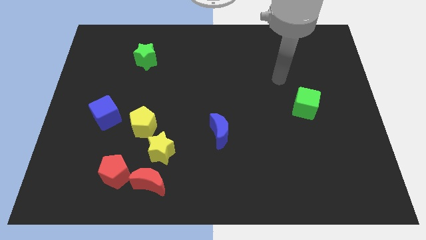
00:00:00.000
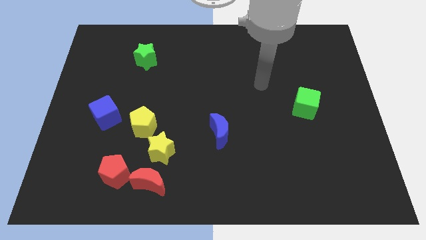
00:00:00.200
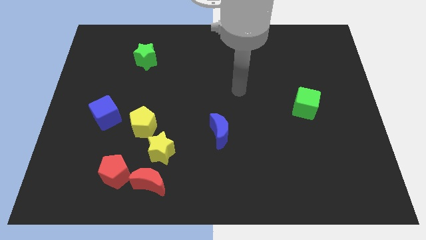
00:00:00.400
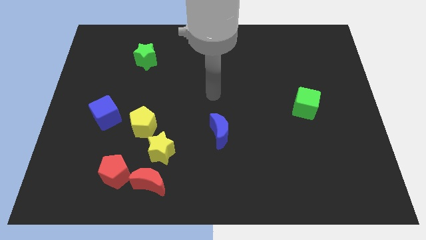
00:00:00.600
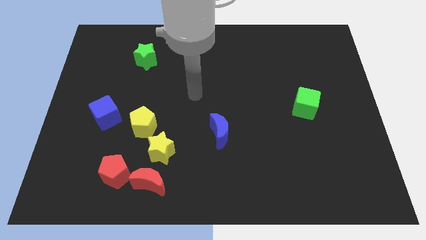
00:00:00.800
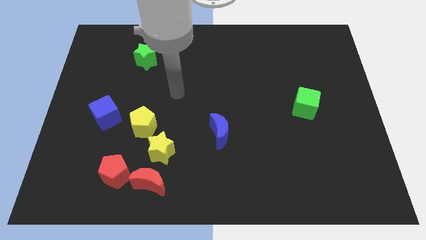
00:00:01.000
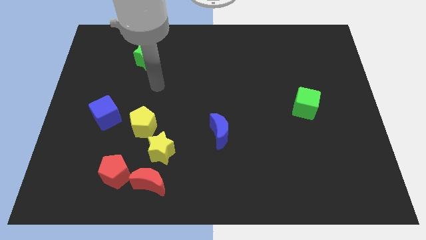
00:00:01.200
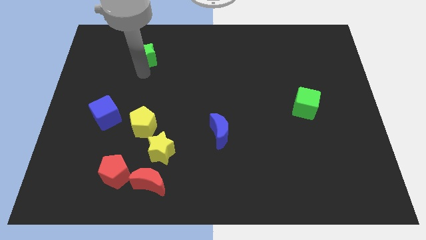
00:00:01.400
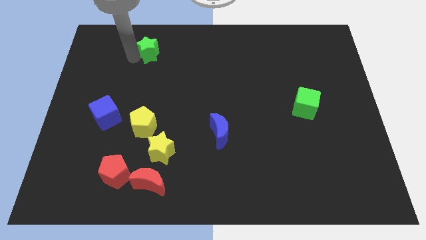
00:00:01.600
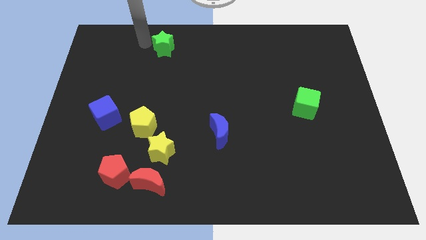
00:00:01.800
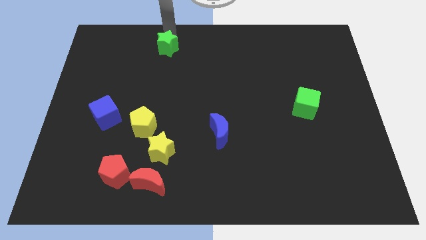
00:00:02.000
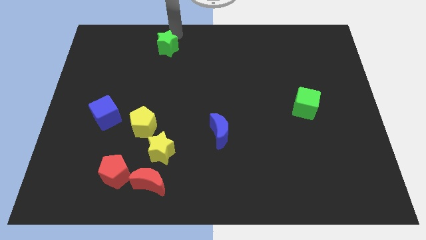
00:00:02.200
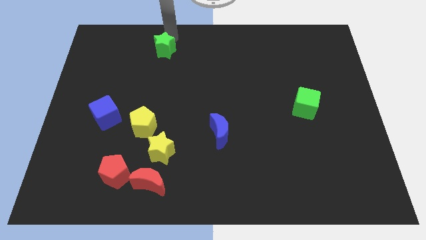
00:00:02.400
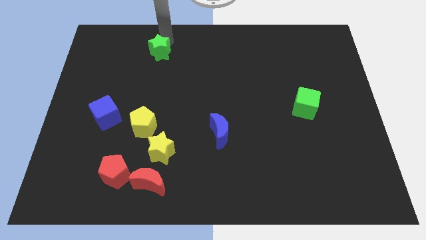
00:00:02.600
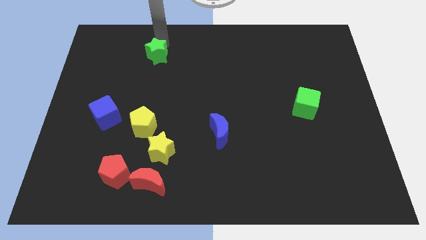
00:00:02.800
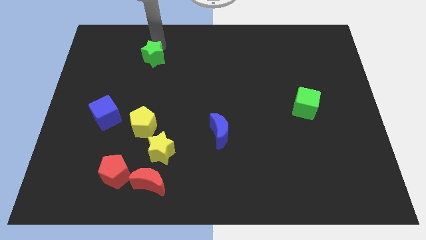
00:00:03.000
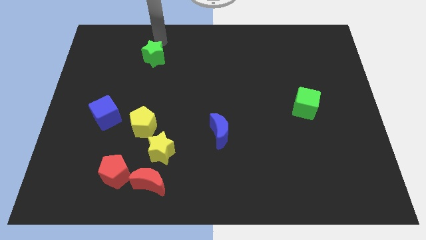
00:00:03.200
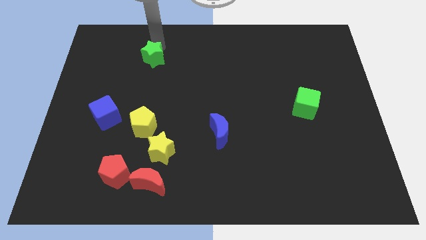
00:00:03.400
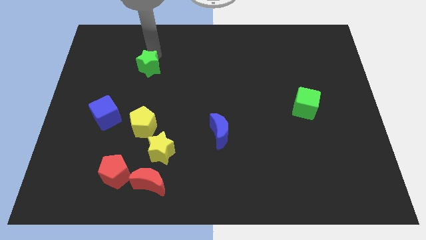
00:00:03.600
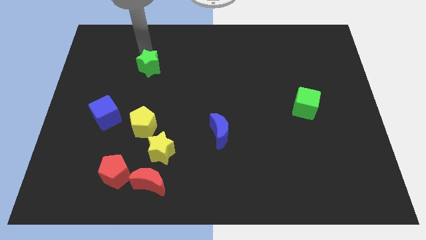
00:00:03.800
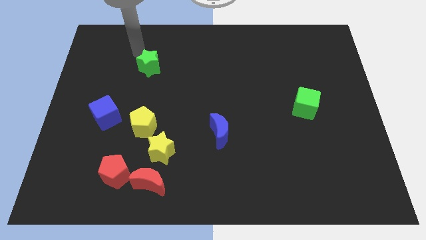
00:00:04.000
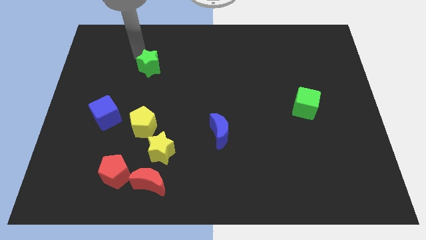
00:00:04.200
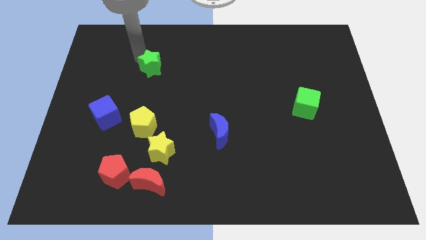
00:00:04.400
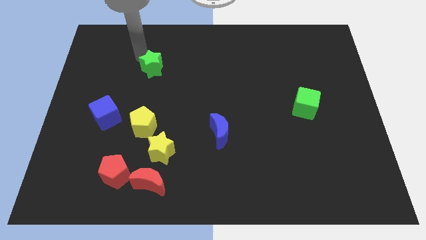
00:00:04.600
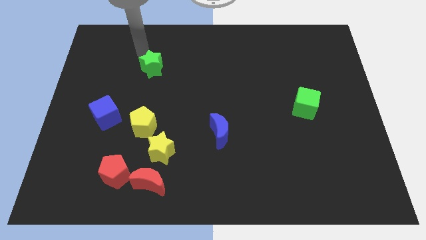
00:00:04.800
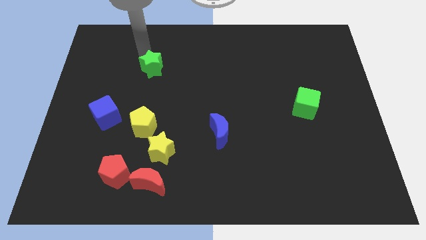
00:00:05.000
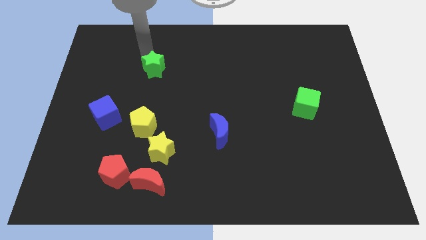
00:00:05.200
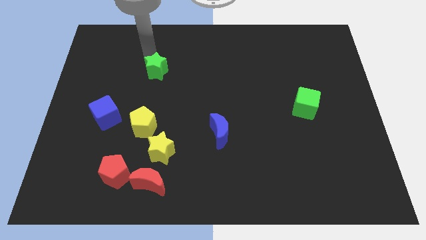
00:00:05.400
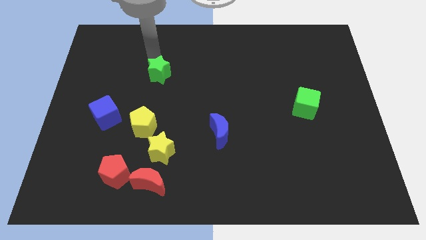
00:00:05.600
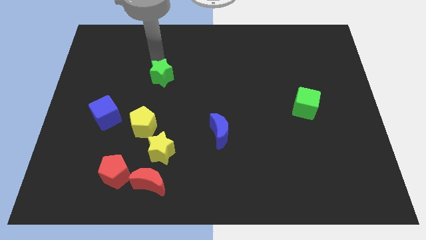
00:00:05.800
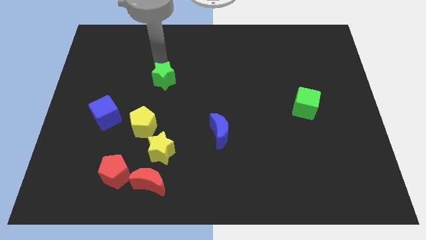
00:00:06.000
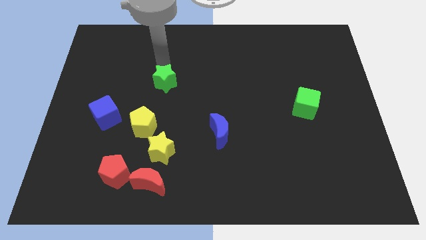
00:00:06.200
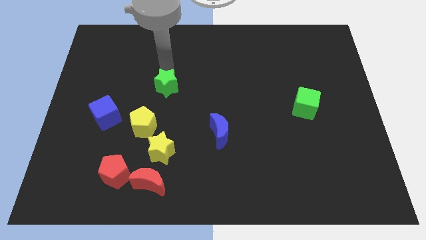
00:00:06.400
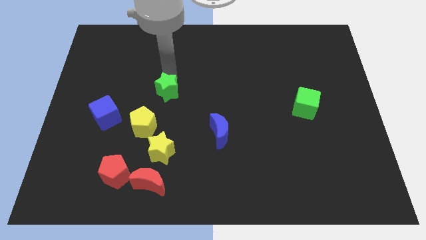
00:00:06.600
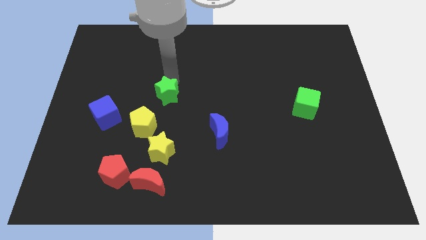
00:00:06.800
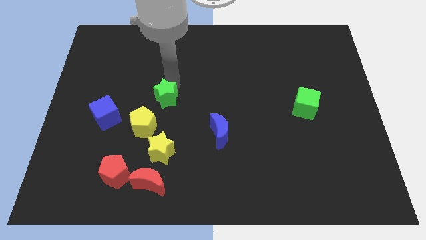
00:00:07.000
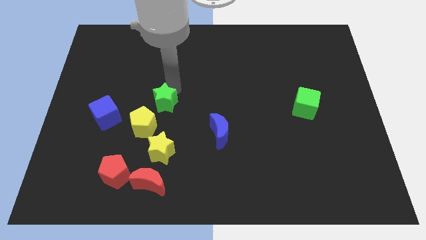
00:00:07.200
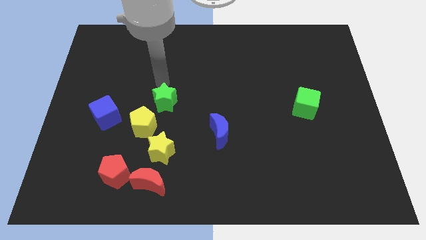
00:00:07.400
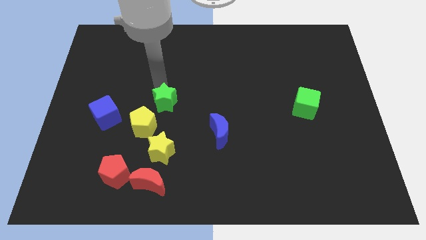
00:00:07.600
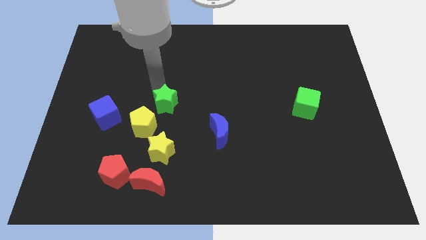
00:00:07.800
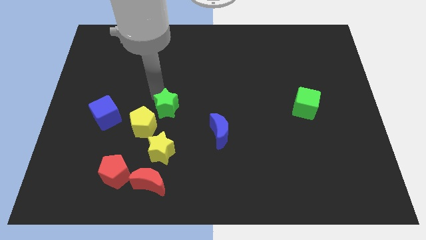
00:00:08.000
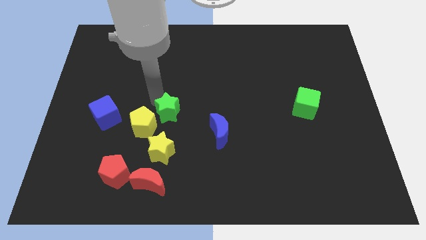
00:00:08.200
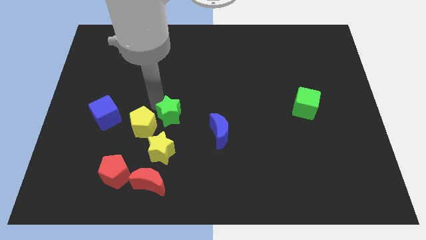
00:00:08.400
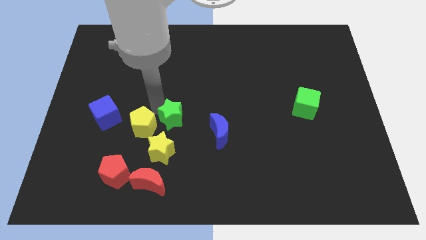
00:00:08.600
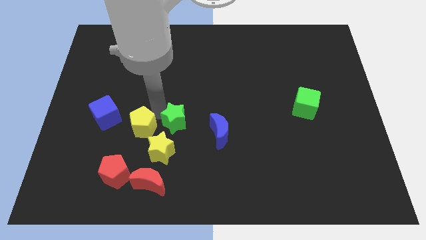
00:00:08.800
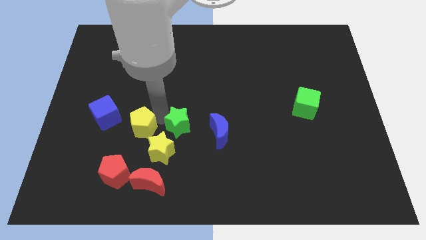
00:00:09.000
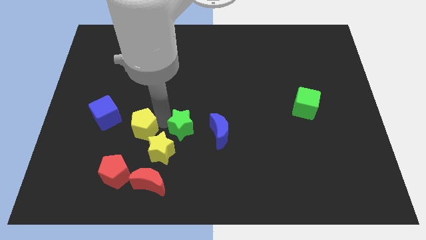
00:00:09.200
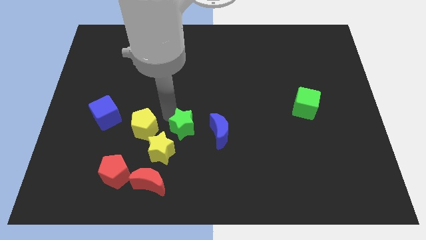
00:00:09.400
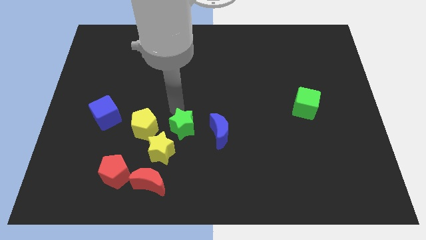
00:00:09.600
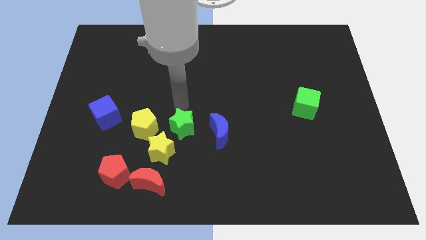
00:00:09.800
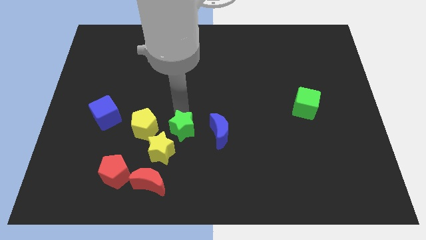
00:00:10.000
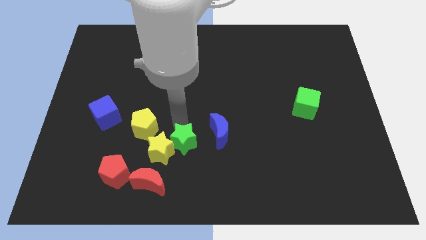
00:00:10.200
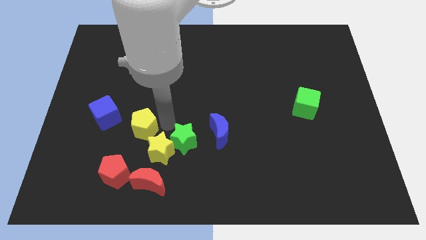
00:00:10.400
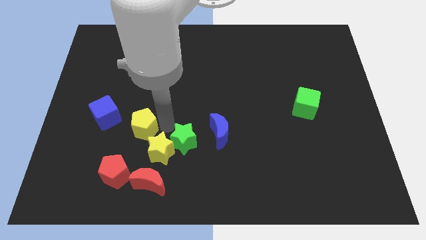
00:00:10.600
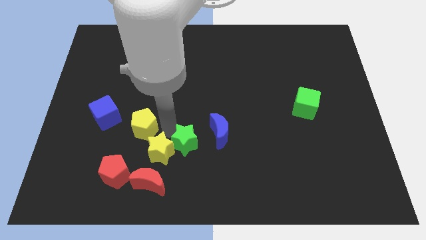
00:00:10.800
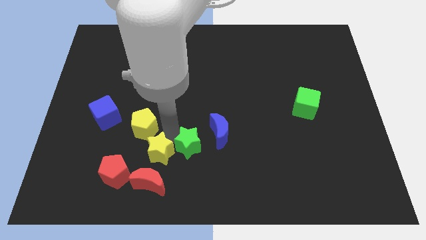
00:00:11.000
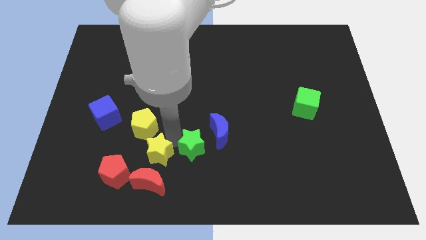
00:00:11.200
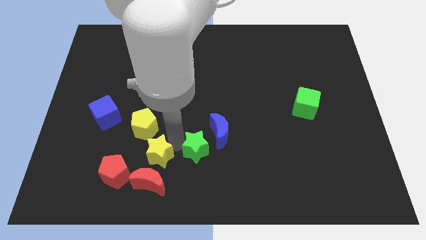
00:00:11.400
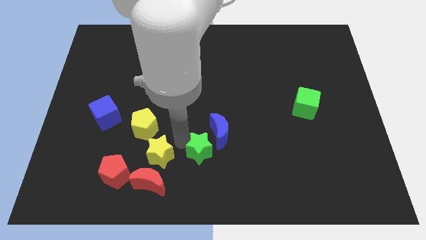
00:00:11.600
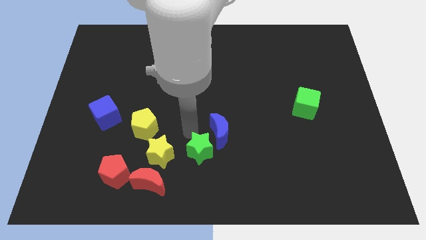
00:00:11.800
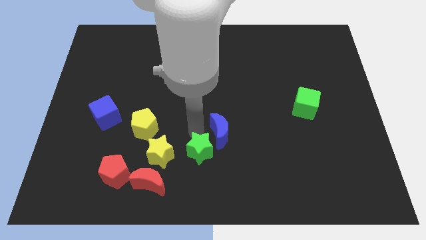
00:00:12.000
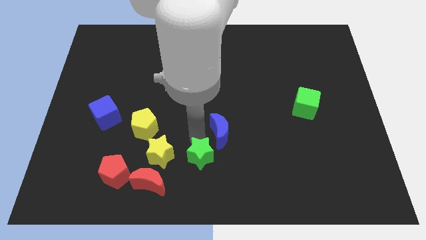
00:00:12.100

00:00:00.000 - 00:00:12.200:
push the green star to the bottom

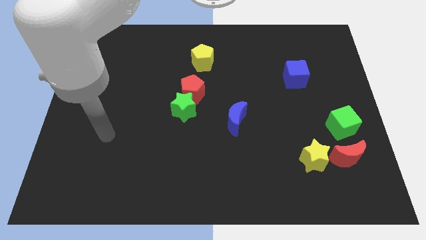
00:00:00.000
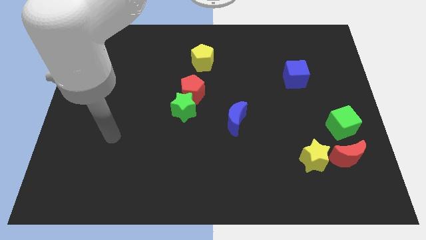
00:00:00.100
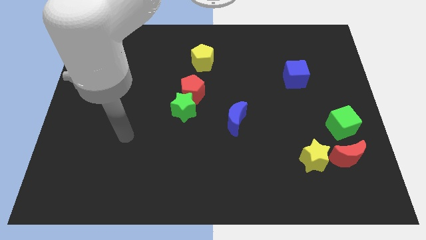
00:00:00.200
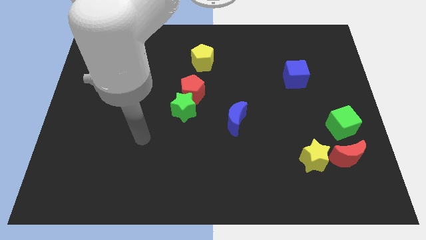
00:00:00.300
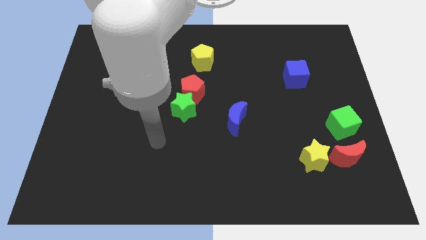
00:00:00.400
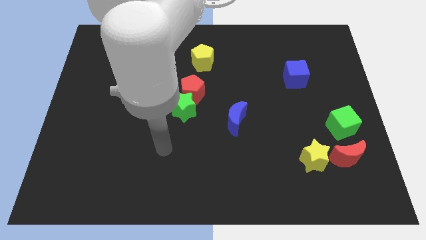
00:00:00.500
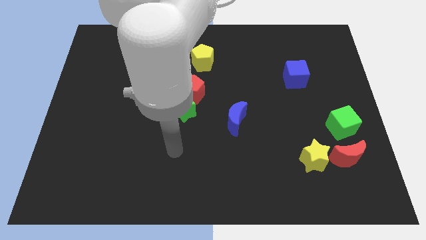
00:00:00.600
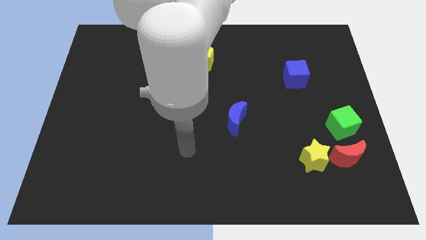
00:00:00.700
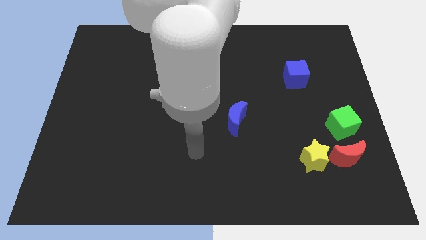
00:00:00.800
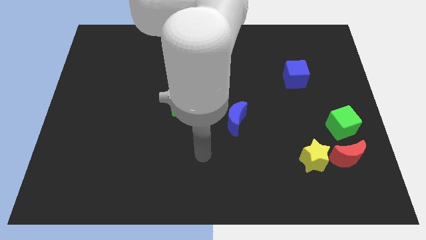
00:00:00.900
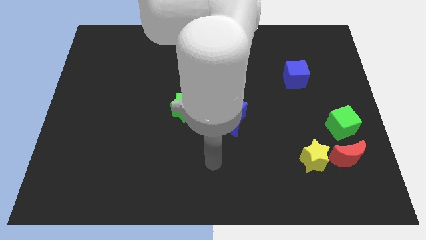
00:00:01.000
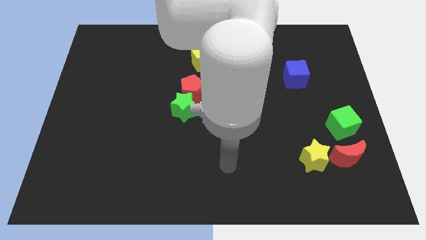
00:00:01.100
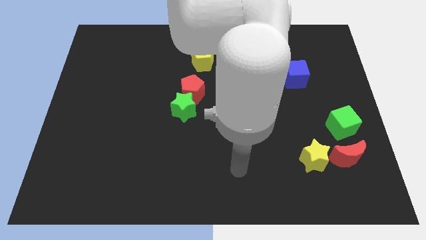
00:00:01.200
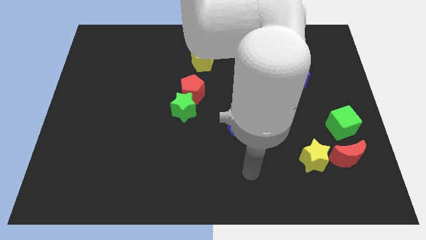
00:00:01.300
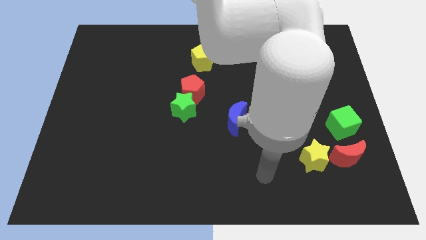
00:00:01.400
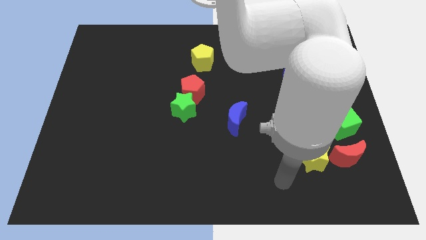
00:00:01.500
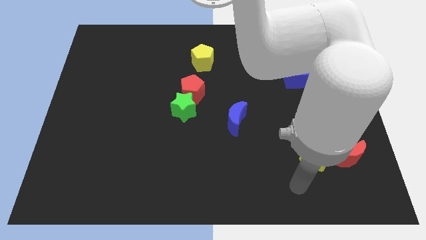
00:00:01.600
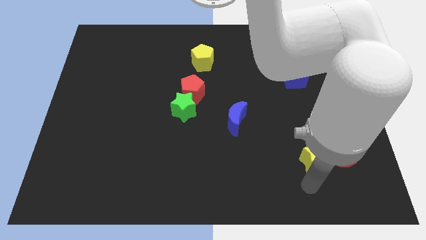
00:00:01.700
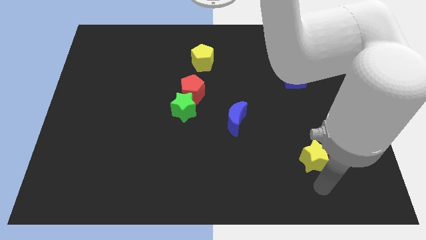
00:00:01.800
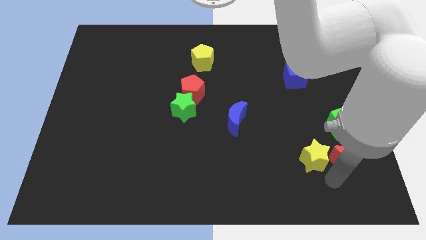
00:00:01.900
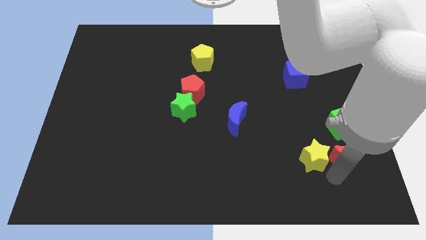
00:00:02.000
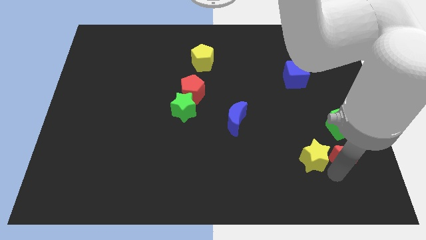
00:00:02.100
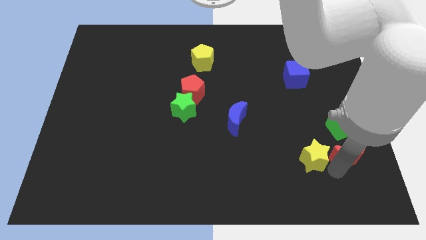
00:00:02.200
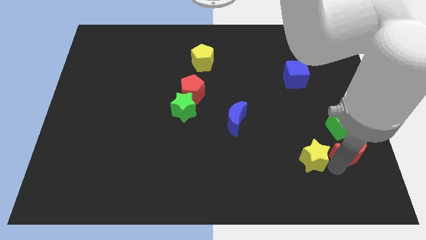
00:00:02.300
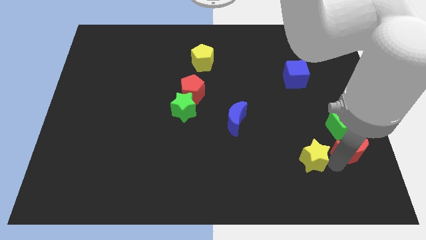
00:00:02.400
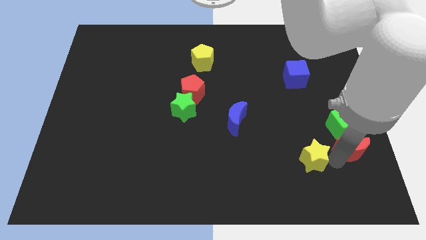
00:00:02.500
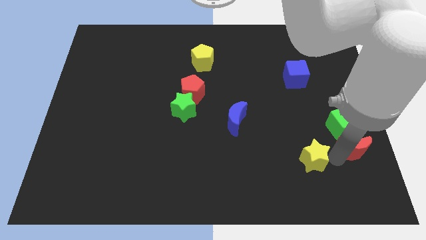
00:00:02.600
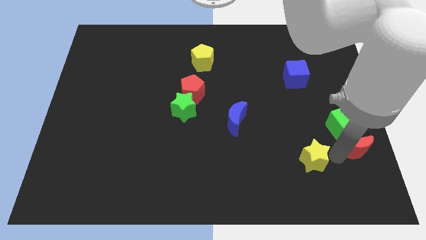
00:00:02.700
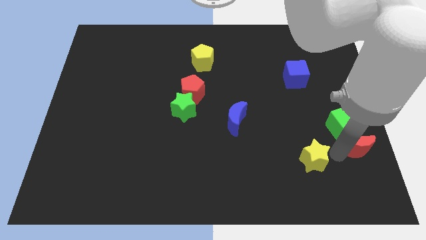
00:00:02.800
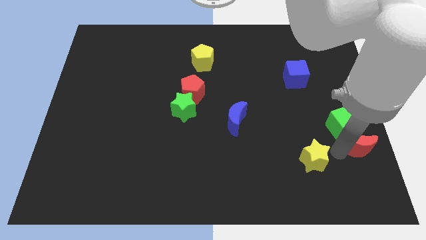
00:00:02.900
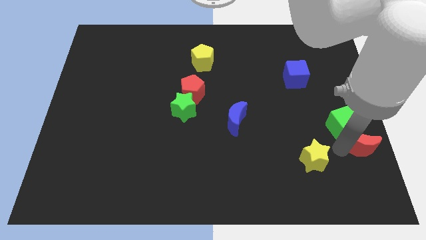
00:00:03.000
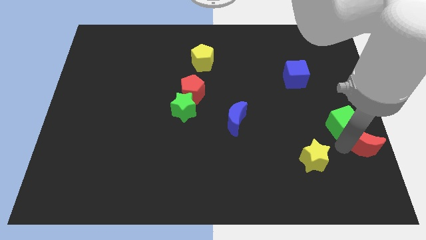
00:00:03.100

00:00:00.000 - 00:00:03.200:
push the red moon to the right side
